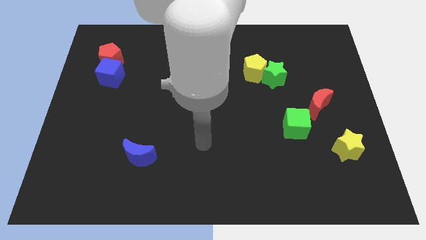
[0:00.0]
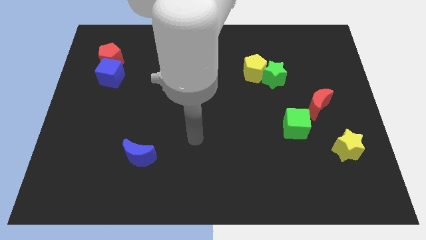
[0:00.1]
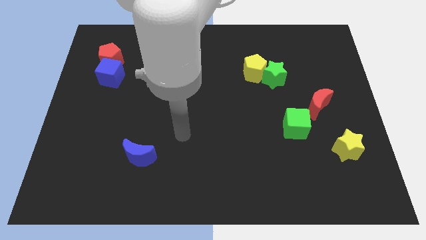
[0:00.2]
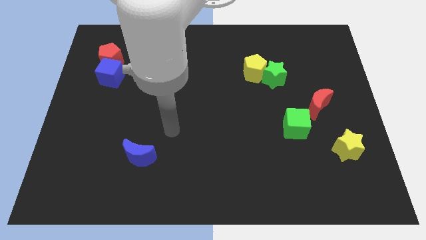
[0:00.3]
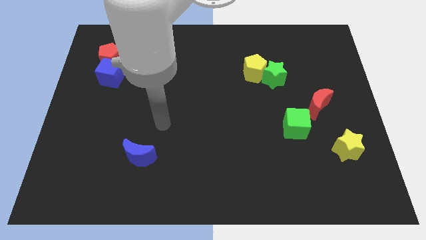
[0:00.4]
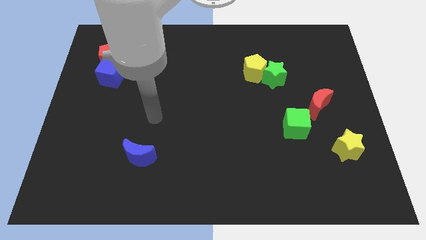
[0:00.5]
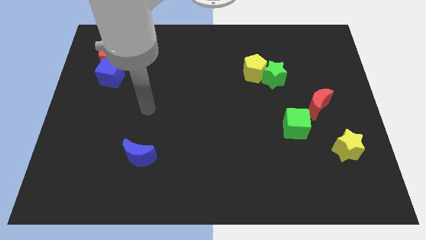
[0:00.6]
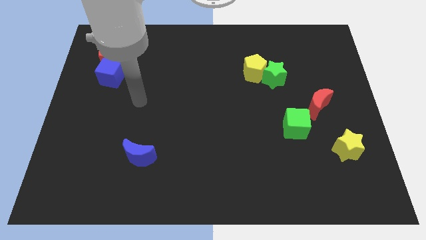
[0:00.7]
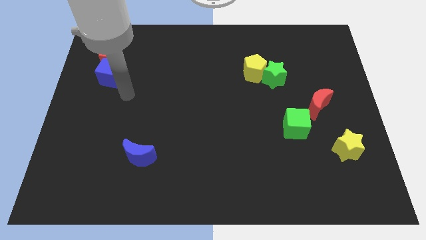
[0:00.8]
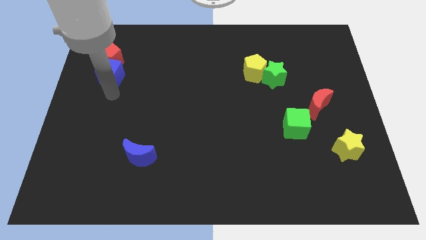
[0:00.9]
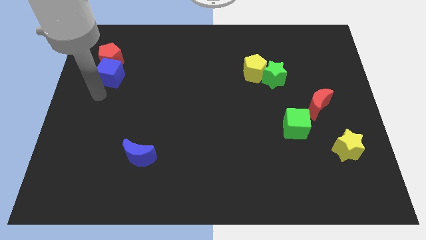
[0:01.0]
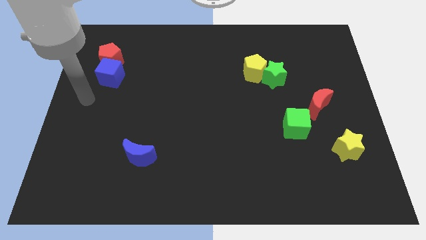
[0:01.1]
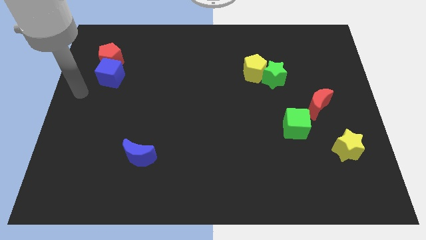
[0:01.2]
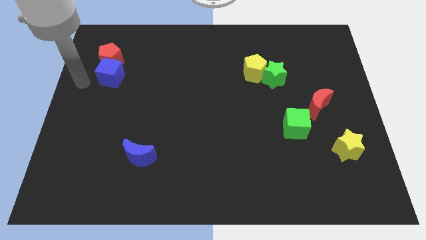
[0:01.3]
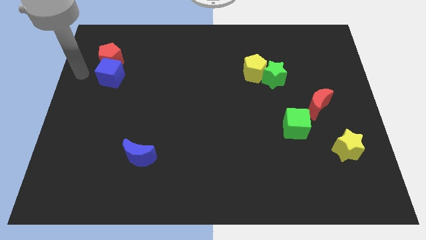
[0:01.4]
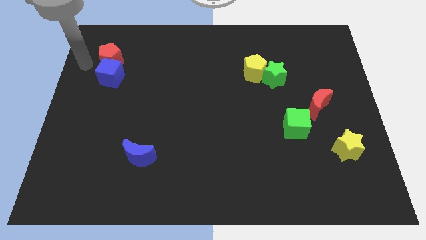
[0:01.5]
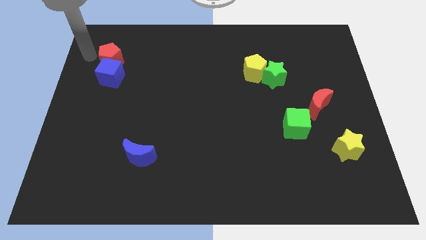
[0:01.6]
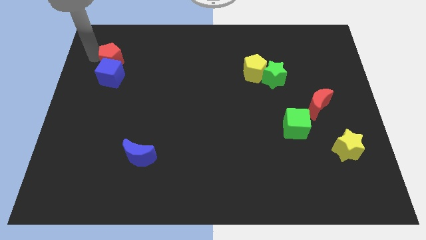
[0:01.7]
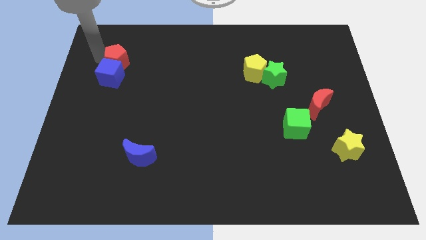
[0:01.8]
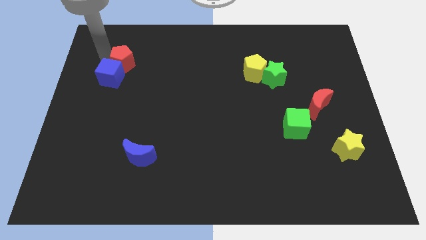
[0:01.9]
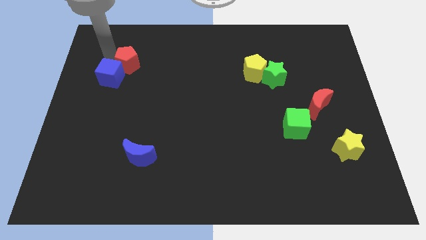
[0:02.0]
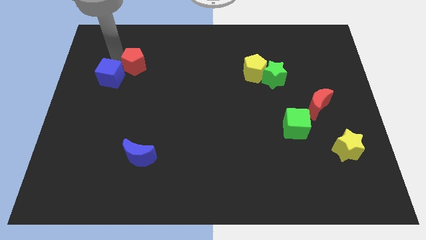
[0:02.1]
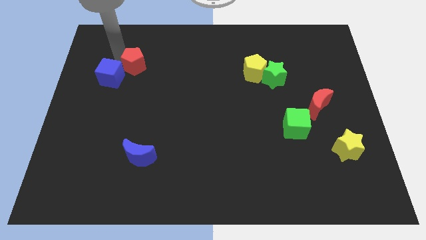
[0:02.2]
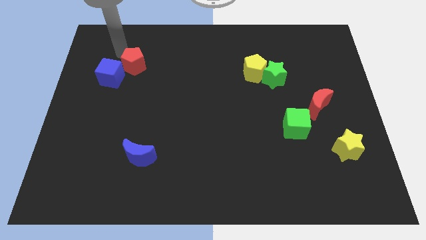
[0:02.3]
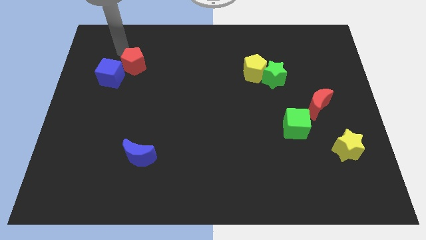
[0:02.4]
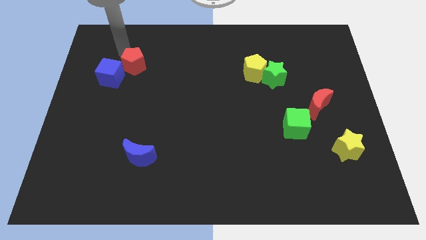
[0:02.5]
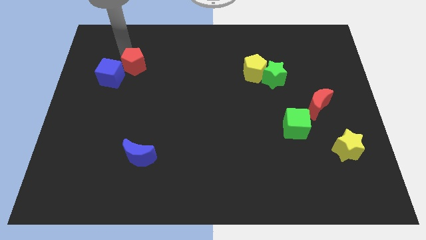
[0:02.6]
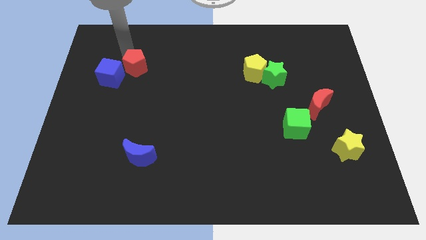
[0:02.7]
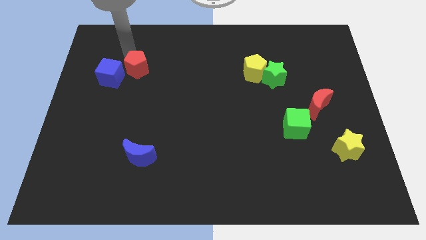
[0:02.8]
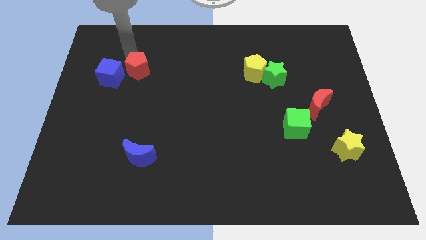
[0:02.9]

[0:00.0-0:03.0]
move the red pentagon downwards and right a little bit

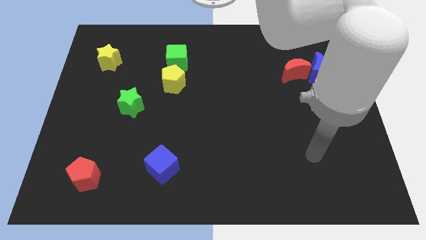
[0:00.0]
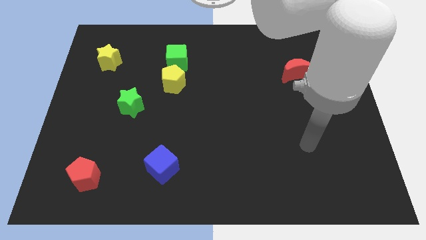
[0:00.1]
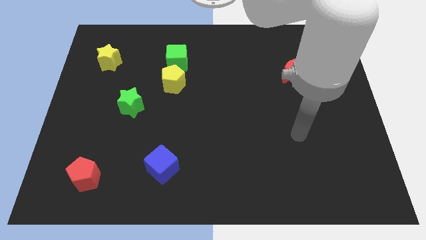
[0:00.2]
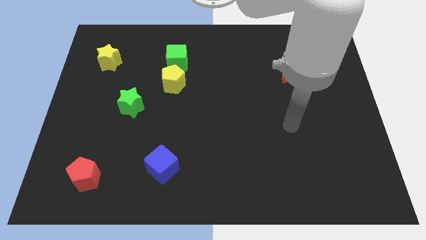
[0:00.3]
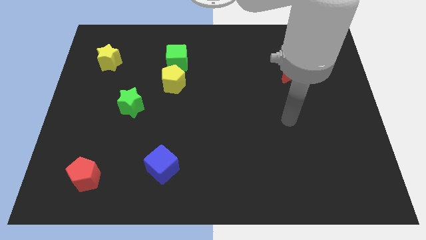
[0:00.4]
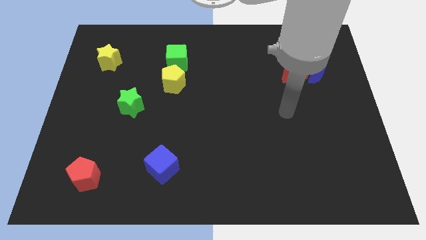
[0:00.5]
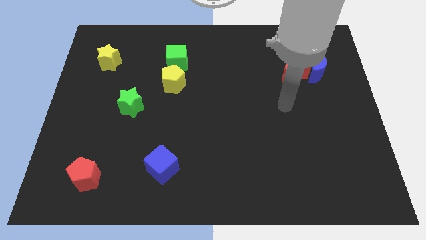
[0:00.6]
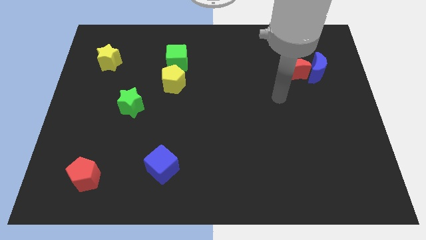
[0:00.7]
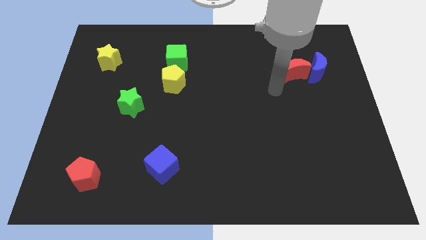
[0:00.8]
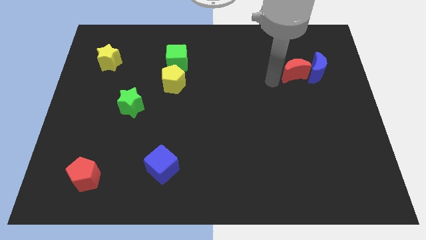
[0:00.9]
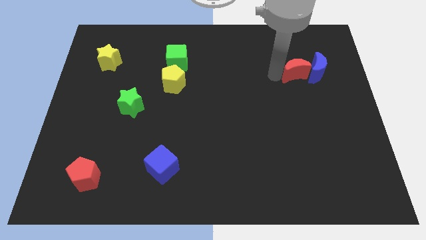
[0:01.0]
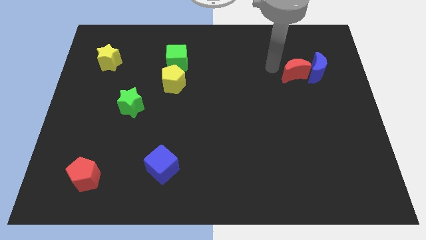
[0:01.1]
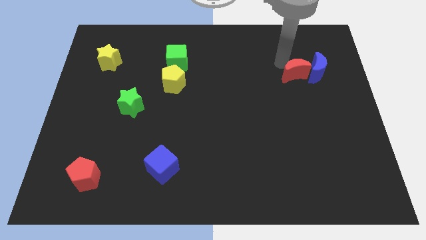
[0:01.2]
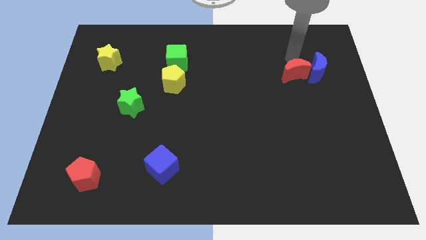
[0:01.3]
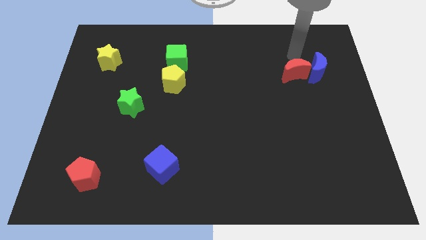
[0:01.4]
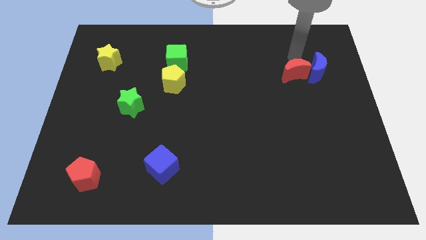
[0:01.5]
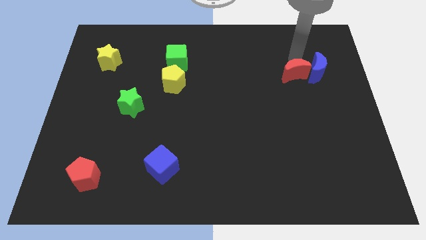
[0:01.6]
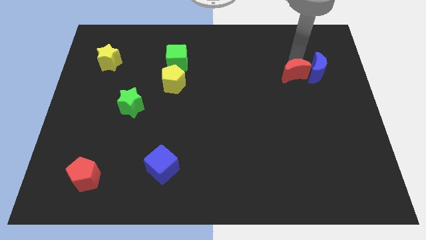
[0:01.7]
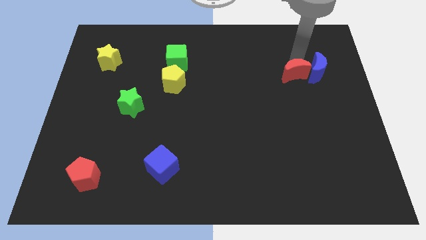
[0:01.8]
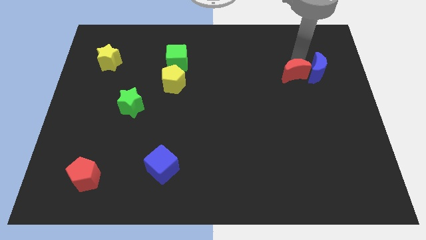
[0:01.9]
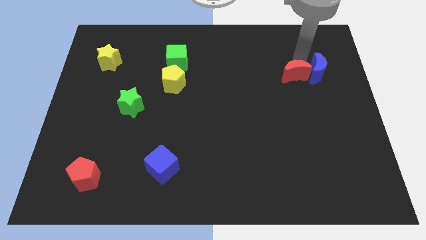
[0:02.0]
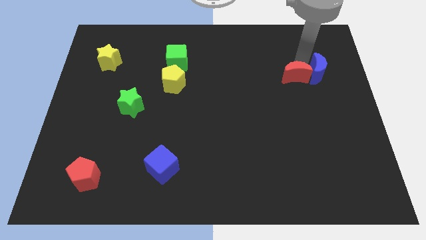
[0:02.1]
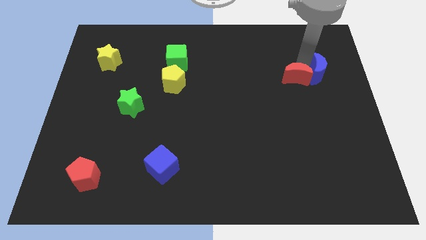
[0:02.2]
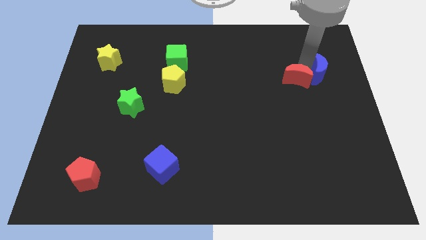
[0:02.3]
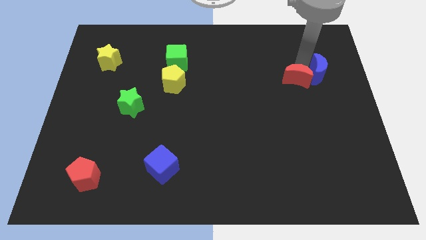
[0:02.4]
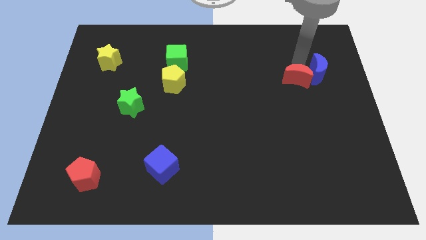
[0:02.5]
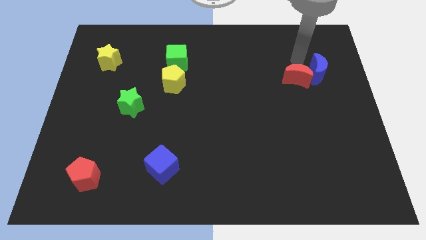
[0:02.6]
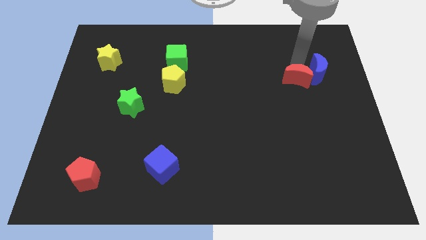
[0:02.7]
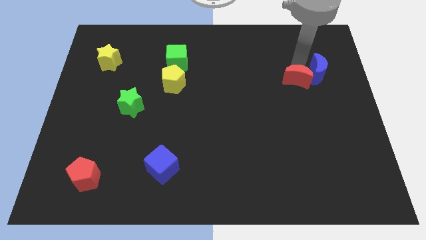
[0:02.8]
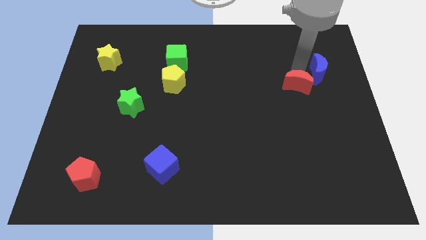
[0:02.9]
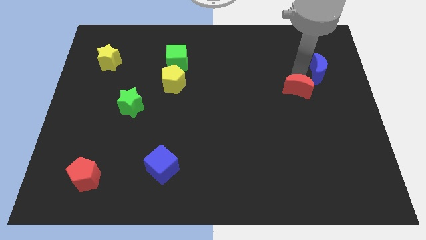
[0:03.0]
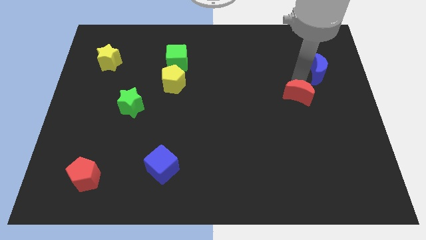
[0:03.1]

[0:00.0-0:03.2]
push the red moon down somewhat

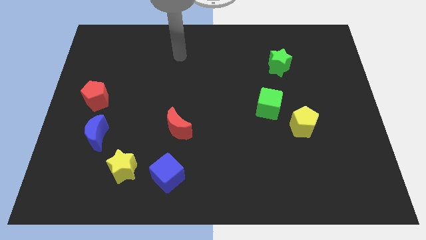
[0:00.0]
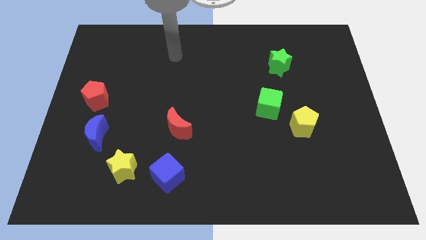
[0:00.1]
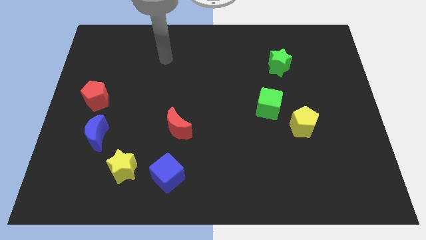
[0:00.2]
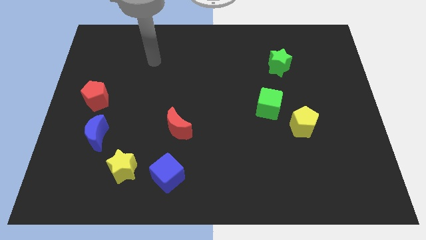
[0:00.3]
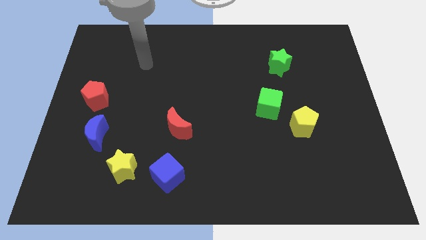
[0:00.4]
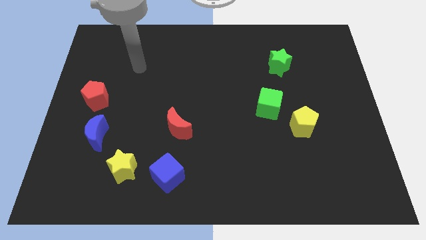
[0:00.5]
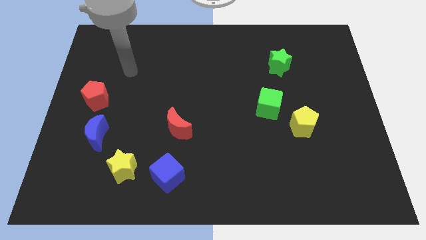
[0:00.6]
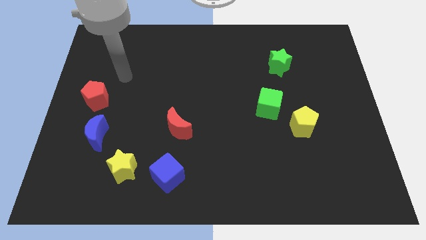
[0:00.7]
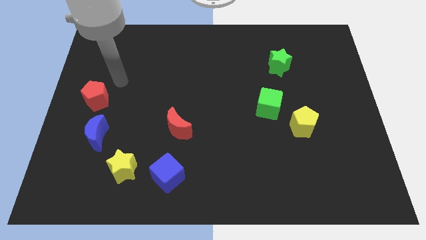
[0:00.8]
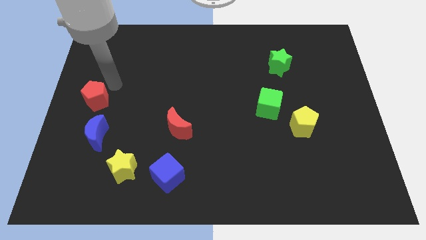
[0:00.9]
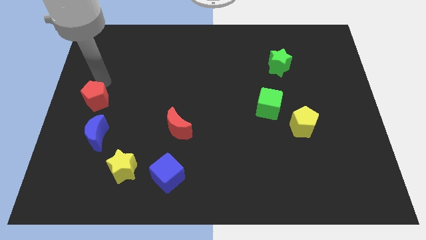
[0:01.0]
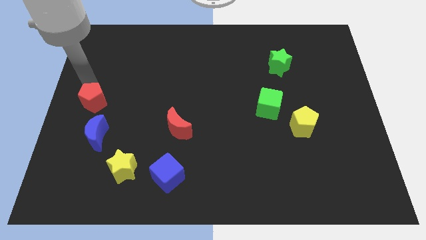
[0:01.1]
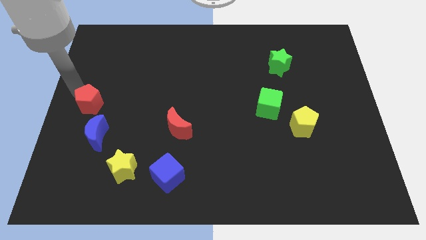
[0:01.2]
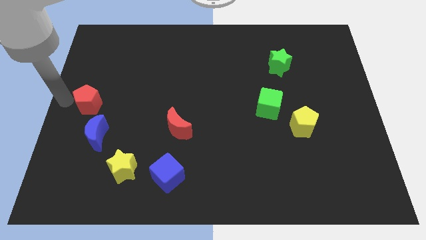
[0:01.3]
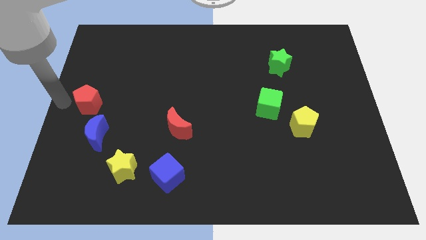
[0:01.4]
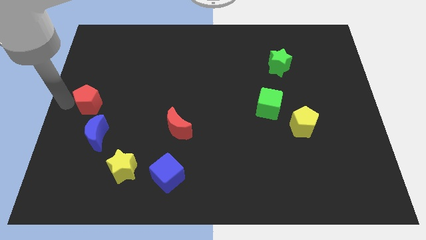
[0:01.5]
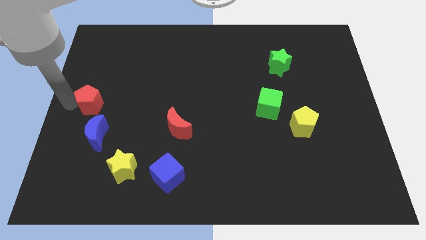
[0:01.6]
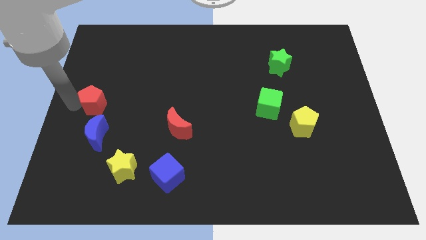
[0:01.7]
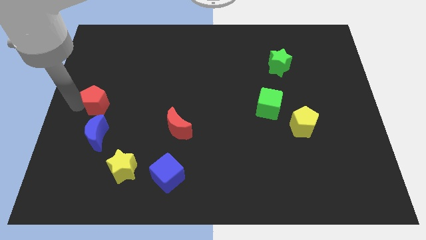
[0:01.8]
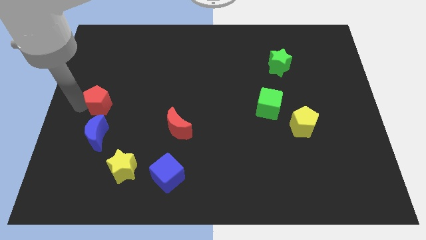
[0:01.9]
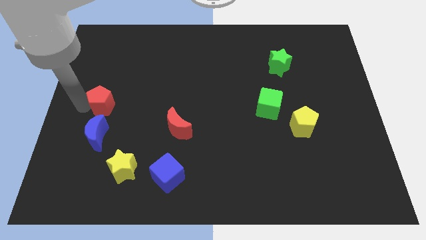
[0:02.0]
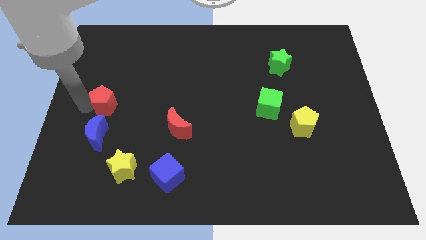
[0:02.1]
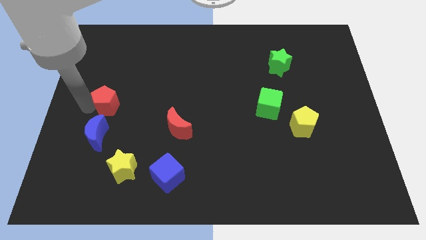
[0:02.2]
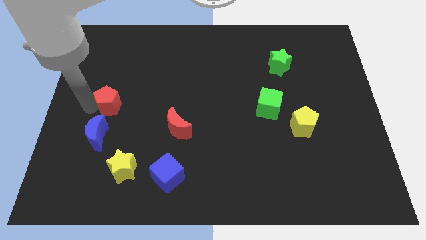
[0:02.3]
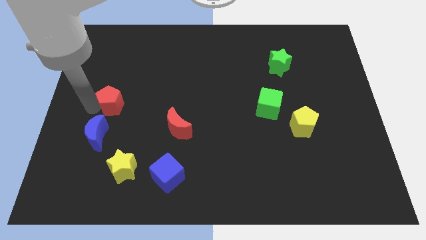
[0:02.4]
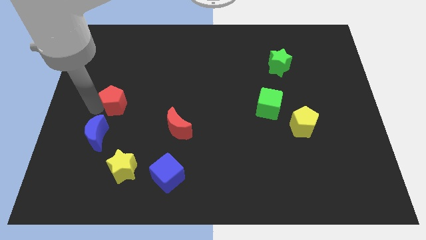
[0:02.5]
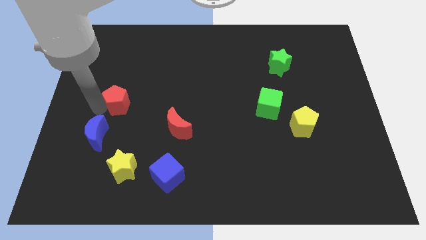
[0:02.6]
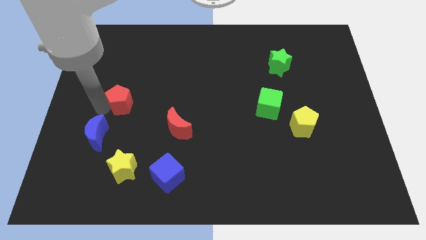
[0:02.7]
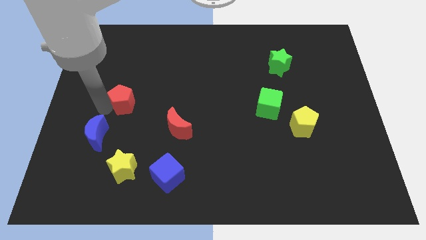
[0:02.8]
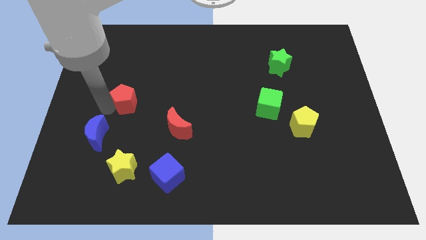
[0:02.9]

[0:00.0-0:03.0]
move the red pentagon a little to the right
